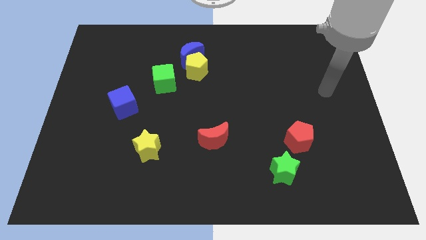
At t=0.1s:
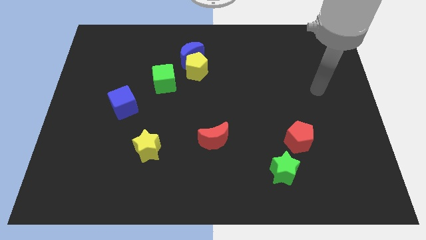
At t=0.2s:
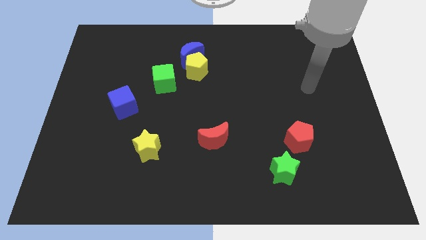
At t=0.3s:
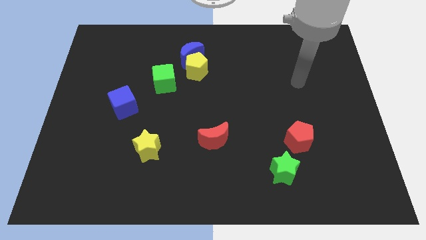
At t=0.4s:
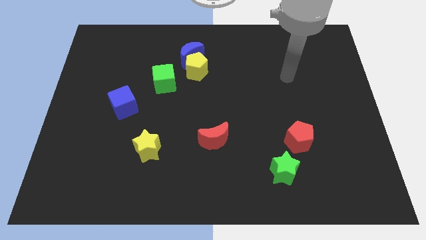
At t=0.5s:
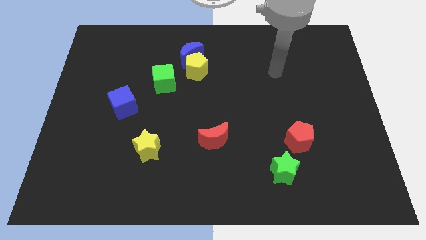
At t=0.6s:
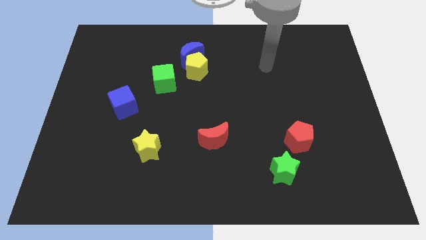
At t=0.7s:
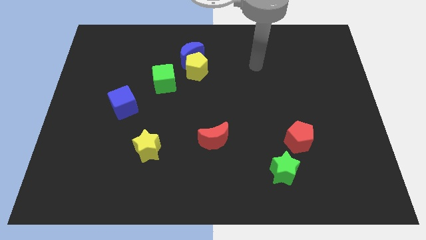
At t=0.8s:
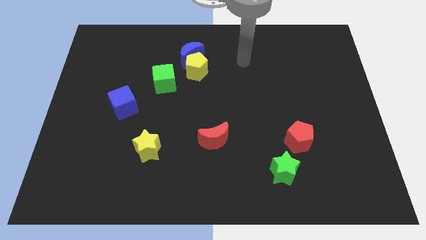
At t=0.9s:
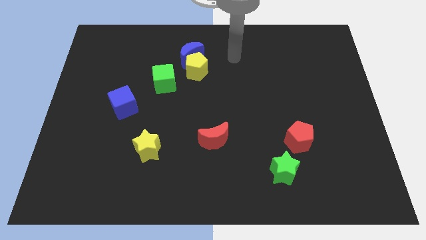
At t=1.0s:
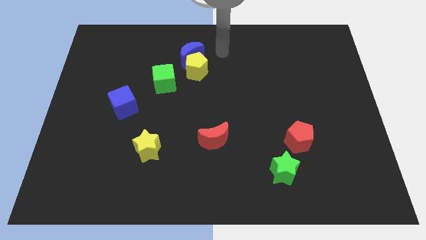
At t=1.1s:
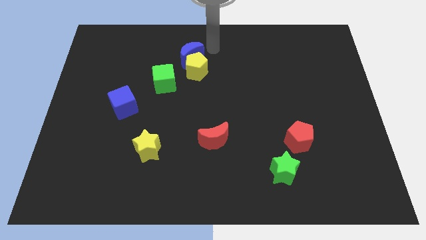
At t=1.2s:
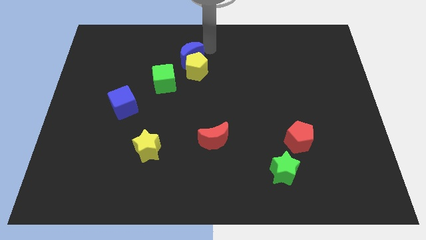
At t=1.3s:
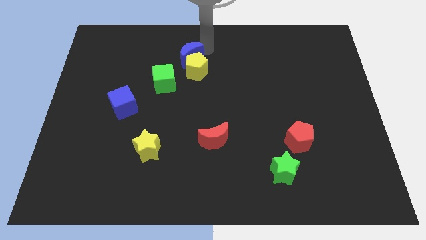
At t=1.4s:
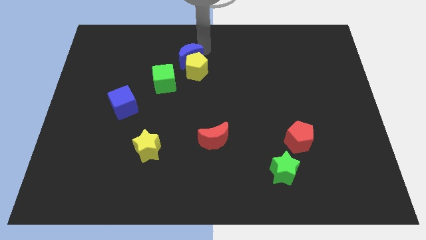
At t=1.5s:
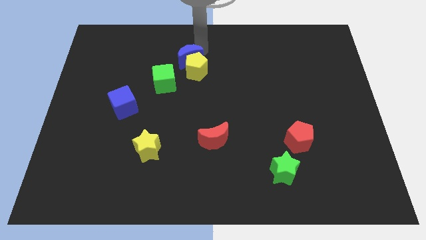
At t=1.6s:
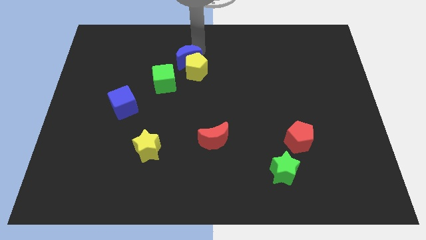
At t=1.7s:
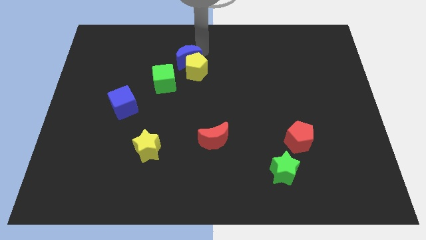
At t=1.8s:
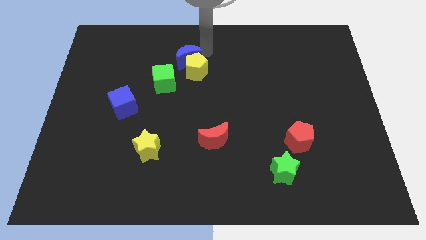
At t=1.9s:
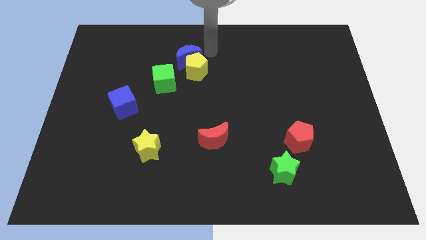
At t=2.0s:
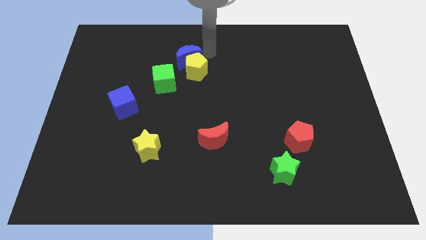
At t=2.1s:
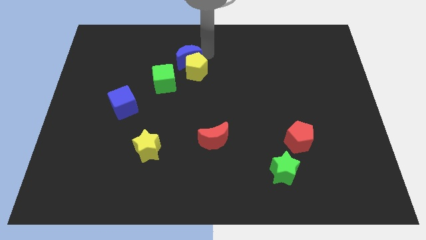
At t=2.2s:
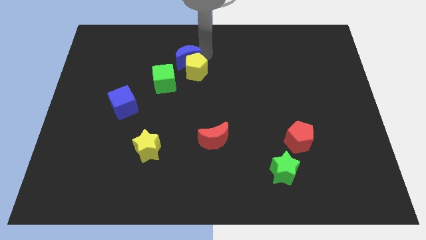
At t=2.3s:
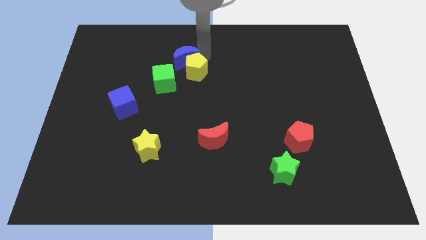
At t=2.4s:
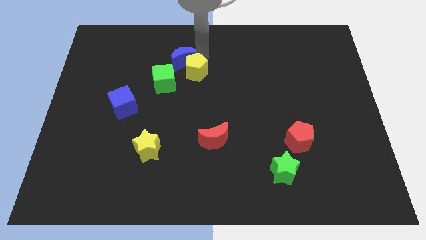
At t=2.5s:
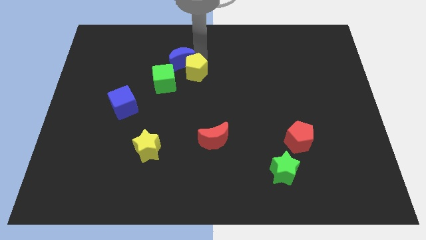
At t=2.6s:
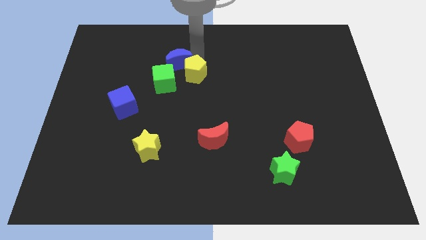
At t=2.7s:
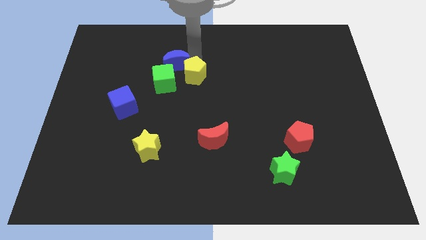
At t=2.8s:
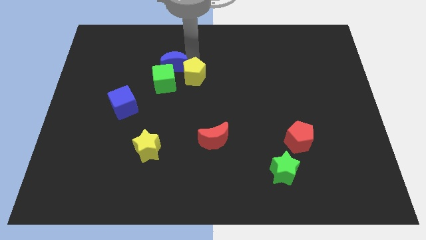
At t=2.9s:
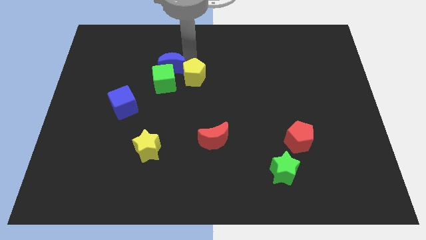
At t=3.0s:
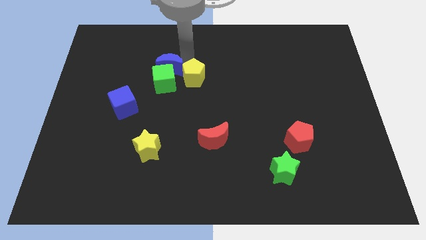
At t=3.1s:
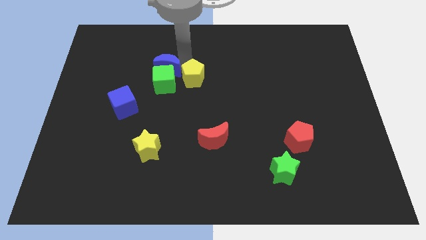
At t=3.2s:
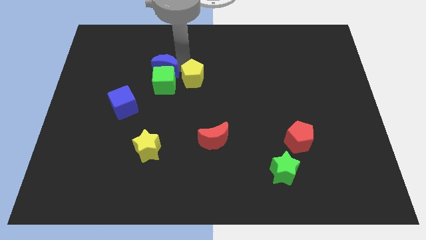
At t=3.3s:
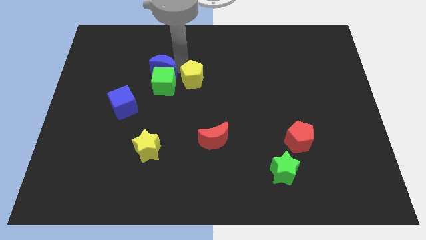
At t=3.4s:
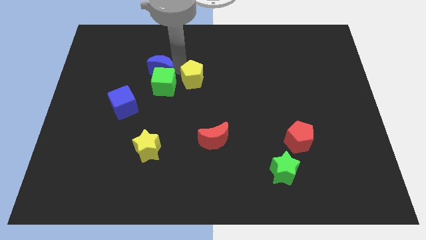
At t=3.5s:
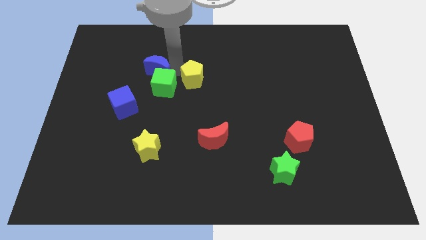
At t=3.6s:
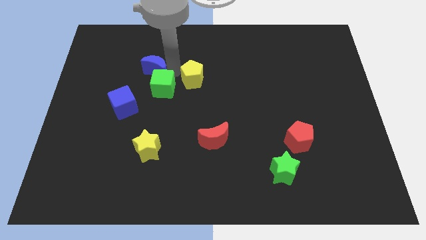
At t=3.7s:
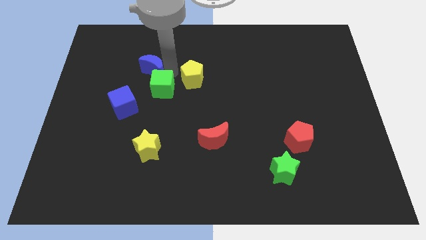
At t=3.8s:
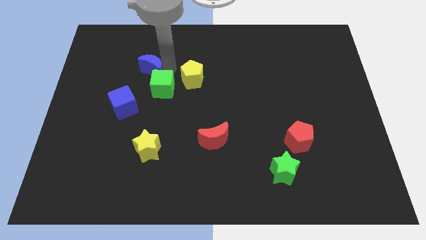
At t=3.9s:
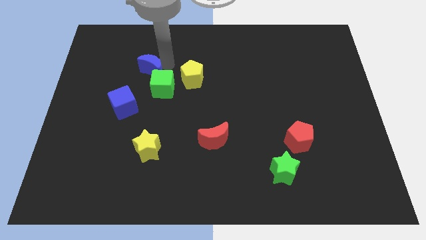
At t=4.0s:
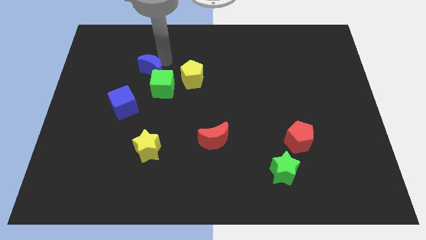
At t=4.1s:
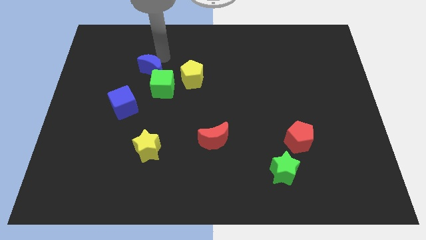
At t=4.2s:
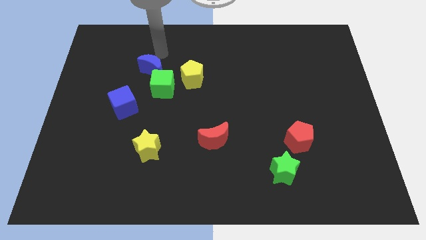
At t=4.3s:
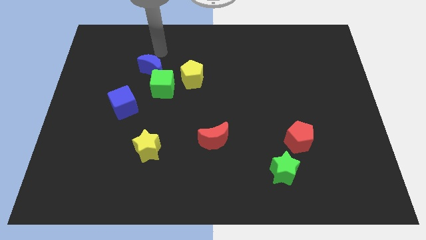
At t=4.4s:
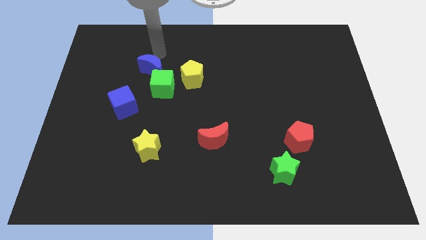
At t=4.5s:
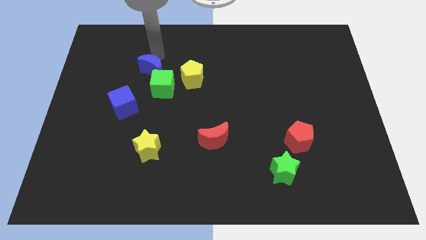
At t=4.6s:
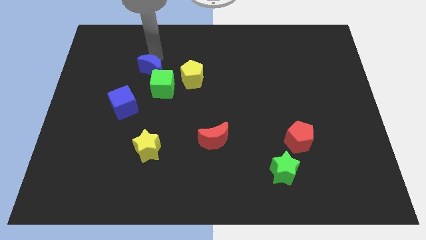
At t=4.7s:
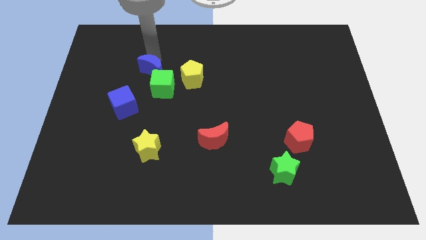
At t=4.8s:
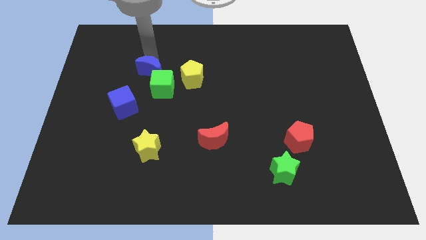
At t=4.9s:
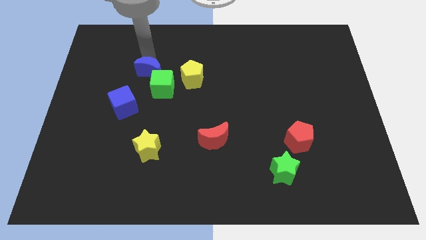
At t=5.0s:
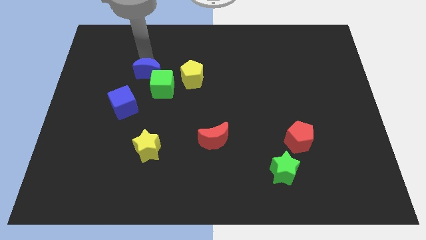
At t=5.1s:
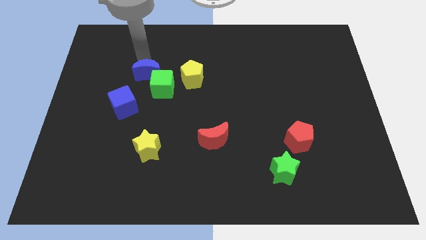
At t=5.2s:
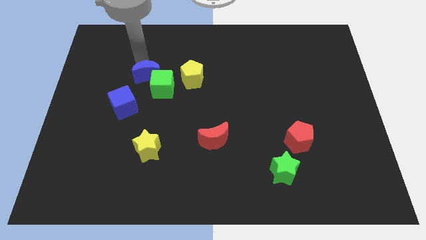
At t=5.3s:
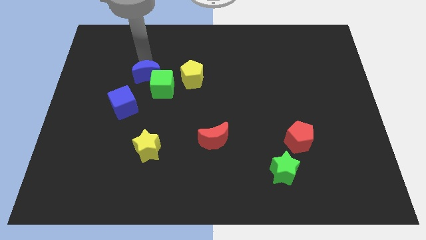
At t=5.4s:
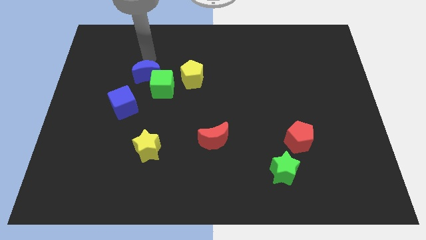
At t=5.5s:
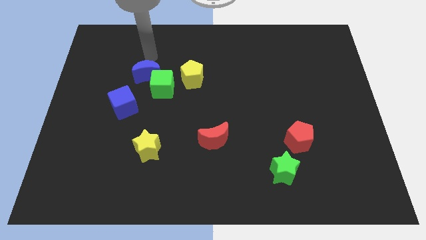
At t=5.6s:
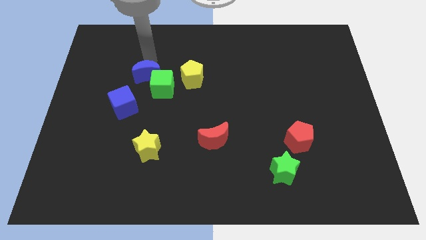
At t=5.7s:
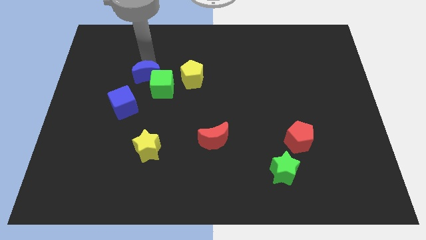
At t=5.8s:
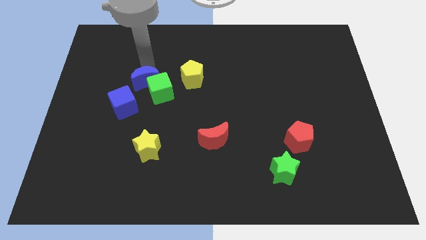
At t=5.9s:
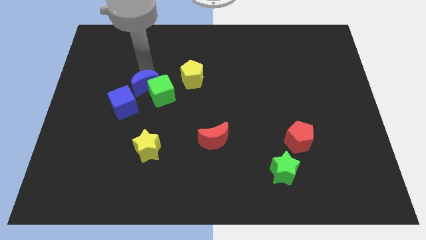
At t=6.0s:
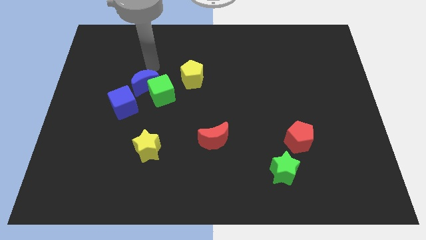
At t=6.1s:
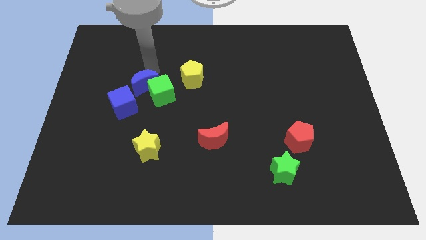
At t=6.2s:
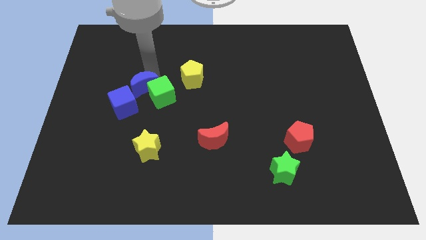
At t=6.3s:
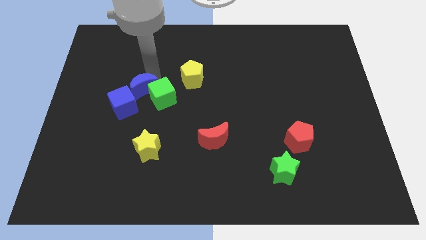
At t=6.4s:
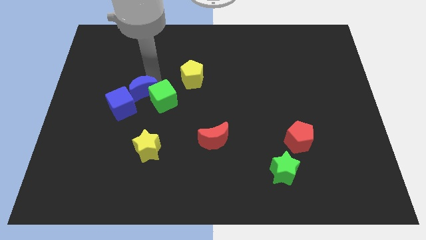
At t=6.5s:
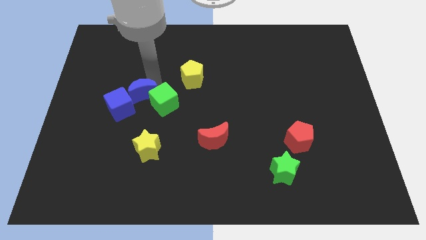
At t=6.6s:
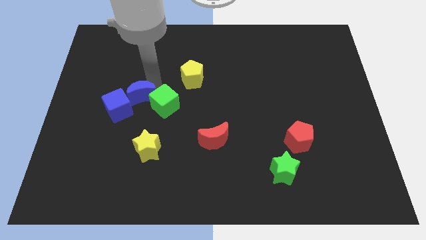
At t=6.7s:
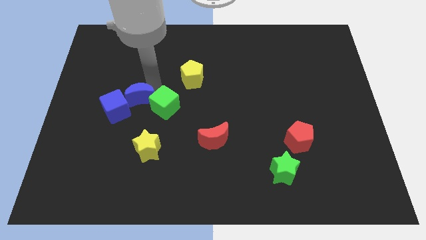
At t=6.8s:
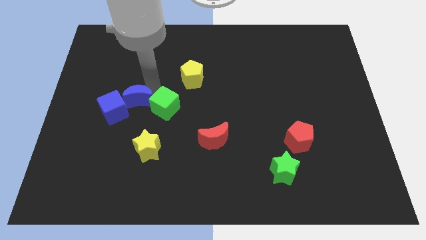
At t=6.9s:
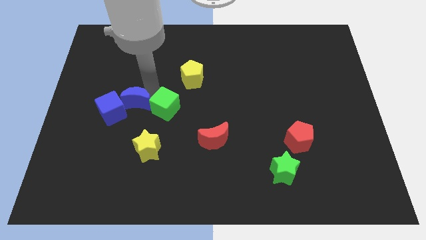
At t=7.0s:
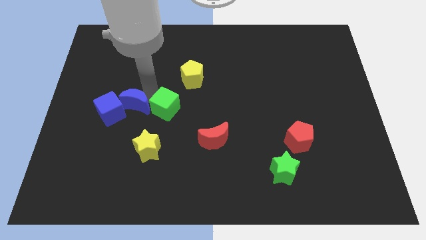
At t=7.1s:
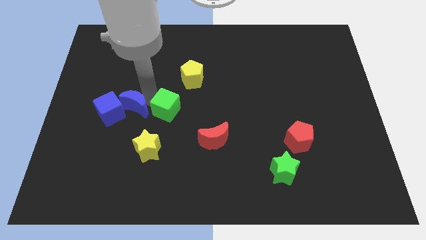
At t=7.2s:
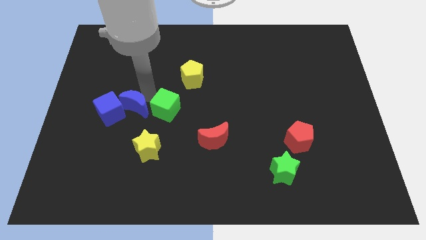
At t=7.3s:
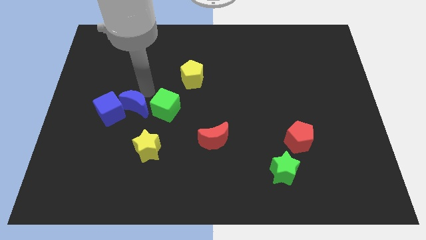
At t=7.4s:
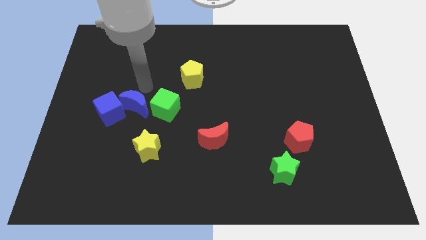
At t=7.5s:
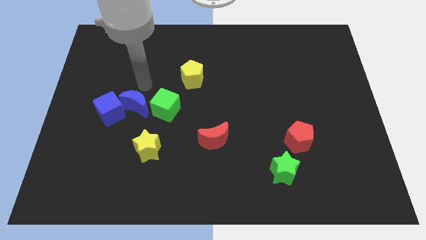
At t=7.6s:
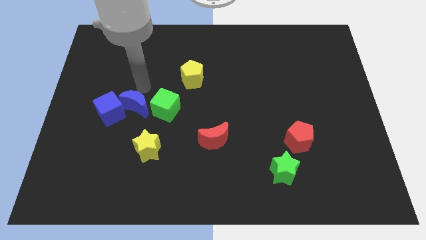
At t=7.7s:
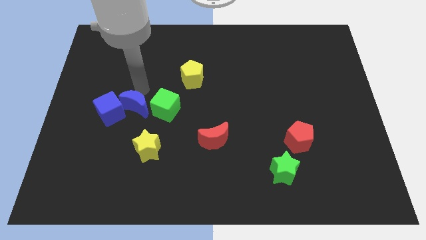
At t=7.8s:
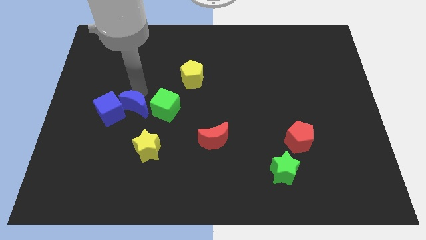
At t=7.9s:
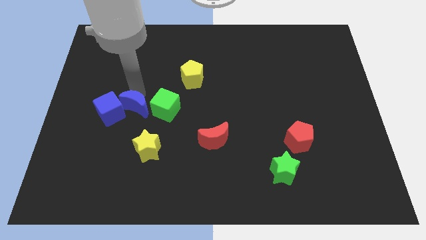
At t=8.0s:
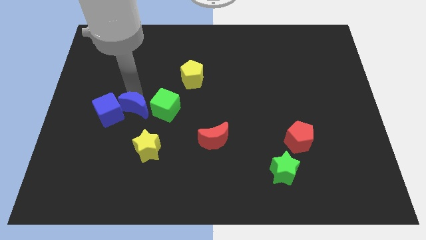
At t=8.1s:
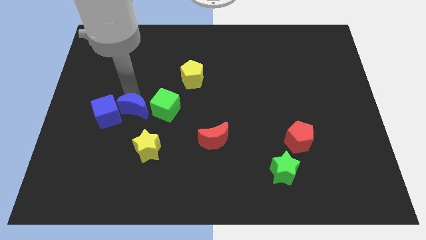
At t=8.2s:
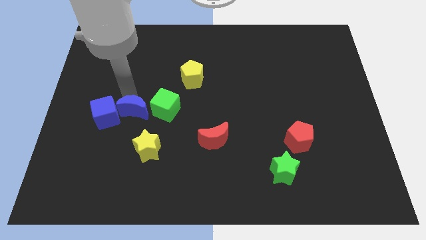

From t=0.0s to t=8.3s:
move the blue moon diagonally up and to the left of the yellow star

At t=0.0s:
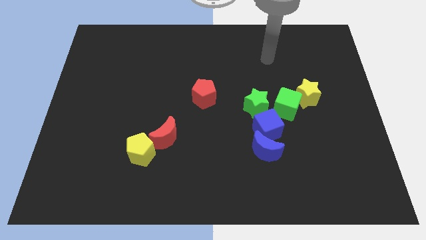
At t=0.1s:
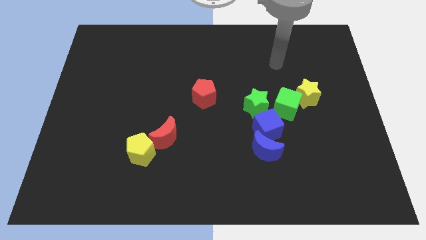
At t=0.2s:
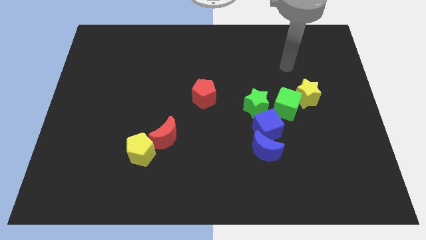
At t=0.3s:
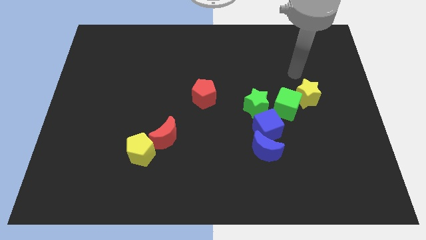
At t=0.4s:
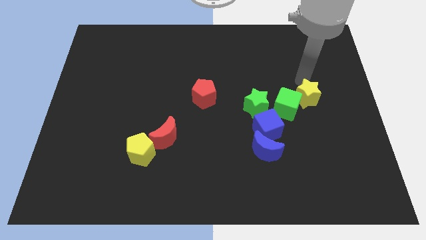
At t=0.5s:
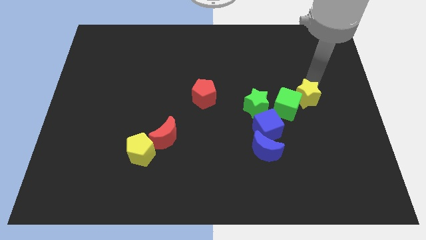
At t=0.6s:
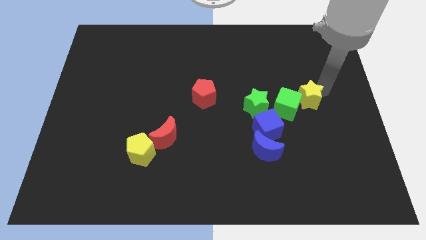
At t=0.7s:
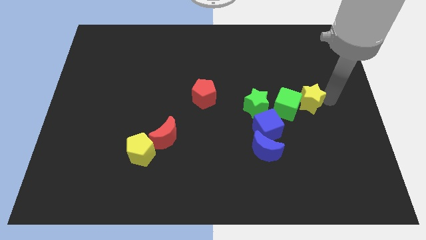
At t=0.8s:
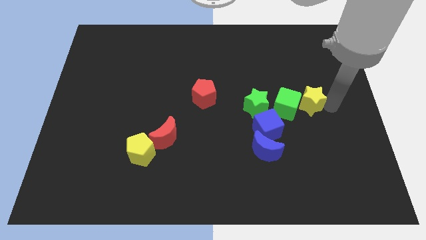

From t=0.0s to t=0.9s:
slide the green cube to the top left side of the yellow star
